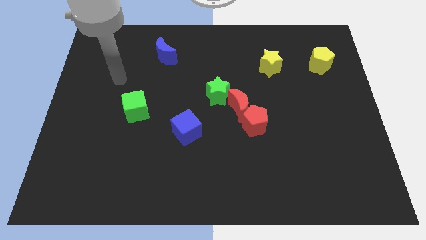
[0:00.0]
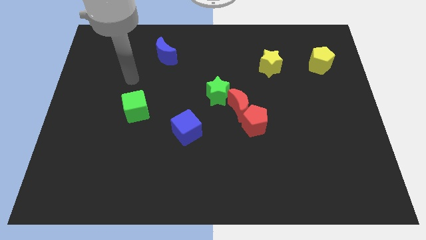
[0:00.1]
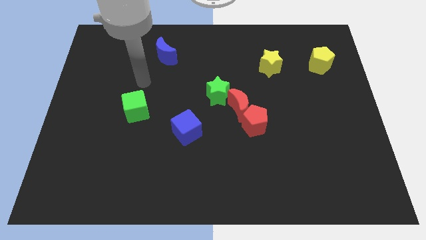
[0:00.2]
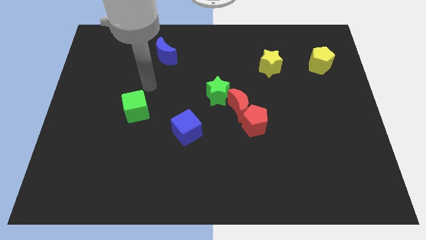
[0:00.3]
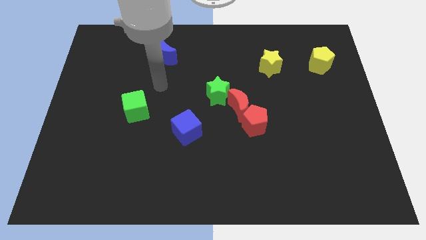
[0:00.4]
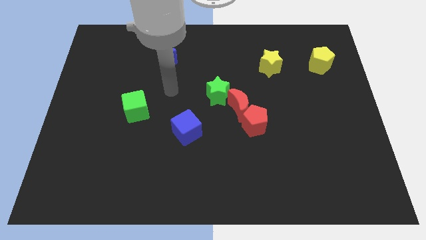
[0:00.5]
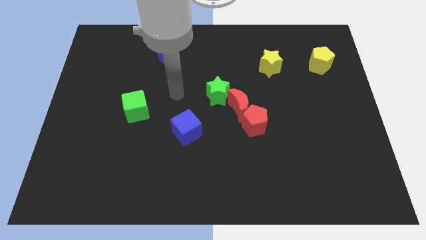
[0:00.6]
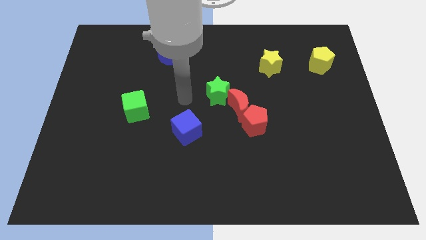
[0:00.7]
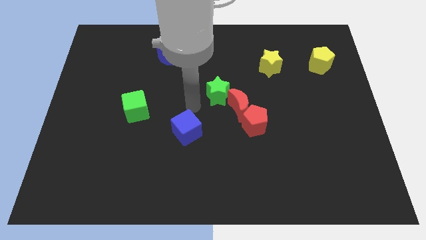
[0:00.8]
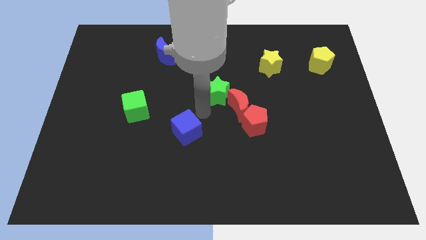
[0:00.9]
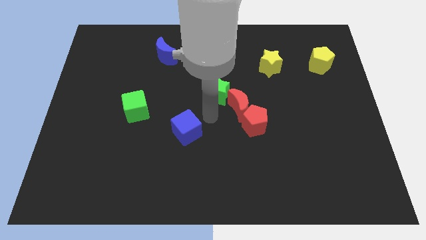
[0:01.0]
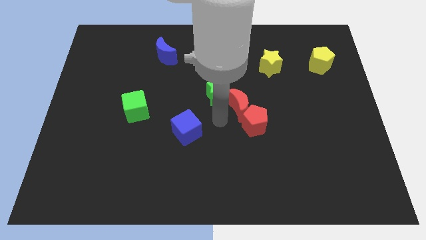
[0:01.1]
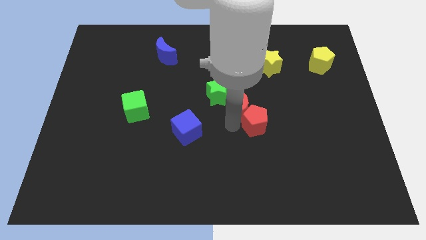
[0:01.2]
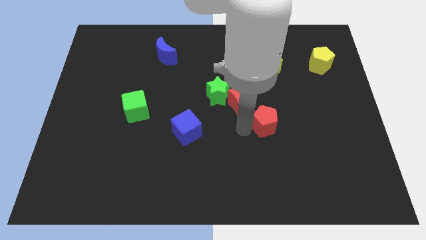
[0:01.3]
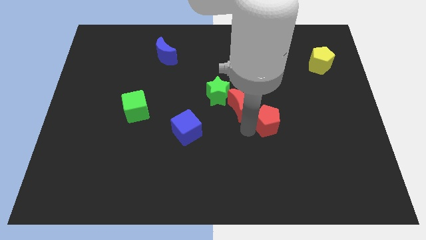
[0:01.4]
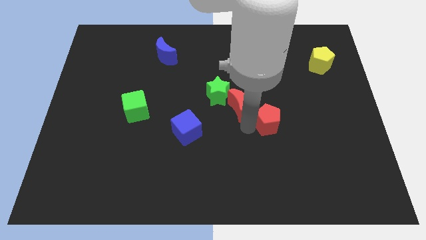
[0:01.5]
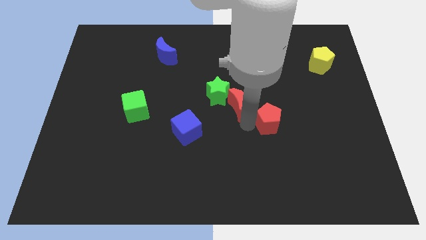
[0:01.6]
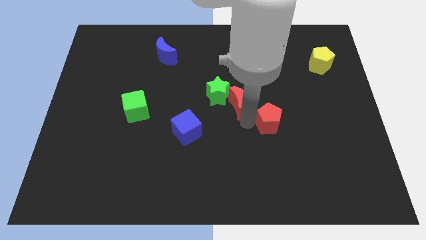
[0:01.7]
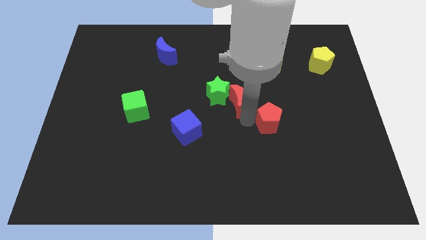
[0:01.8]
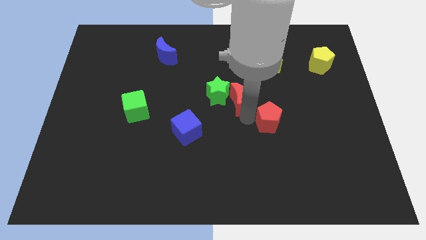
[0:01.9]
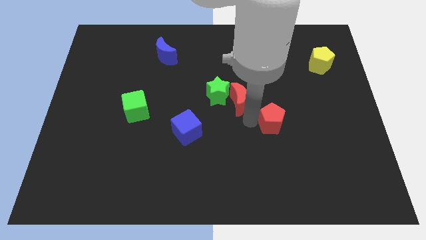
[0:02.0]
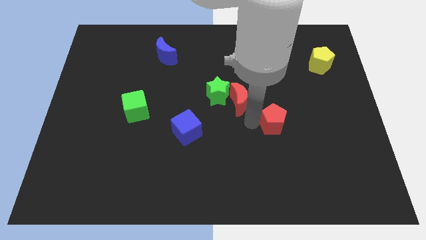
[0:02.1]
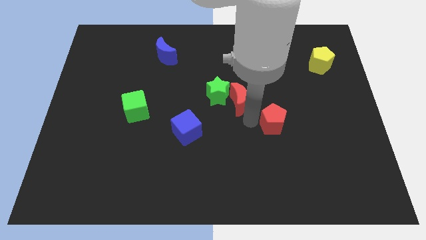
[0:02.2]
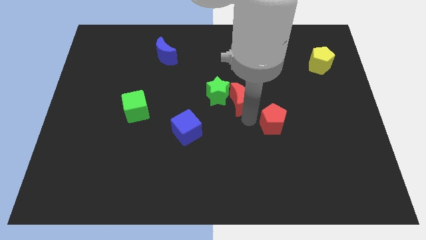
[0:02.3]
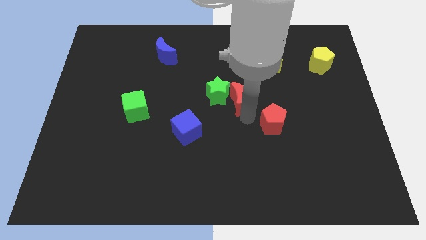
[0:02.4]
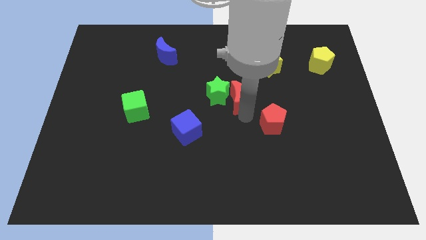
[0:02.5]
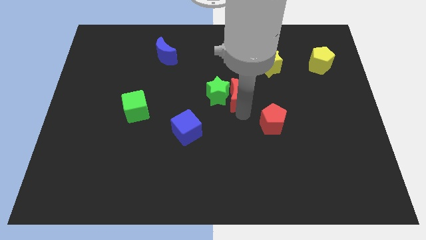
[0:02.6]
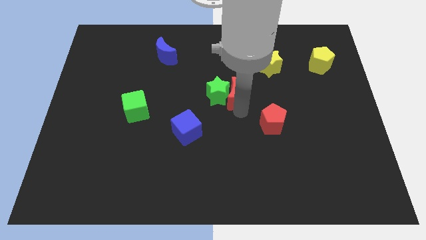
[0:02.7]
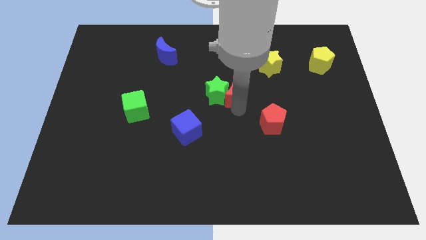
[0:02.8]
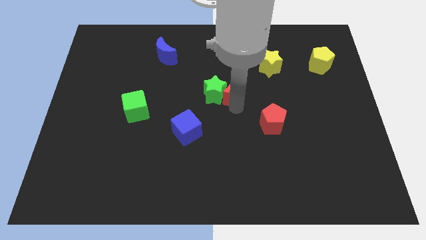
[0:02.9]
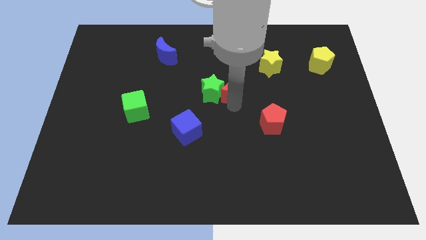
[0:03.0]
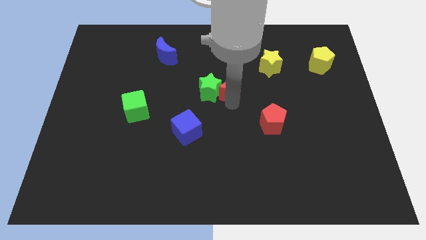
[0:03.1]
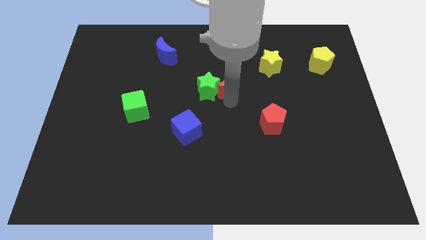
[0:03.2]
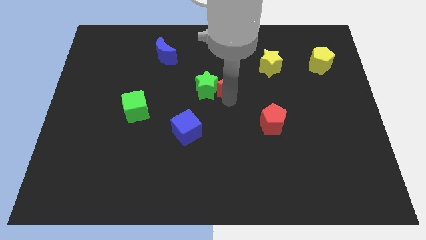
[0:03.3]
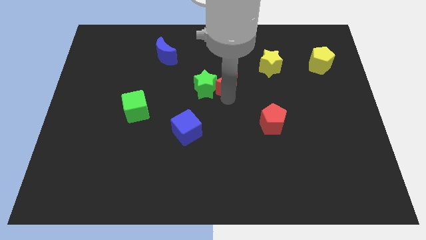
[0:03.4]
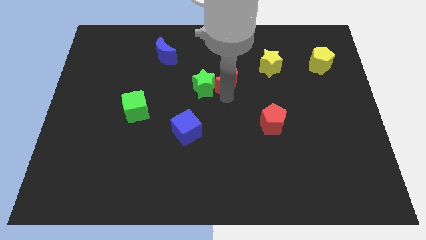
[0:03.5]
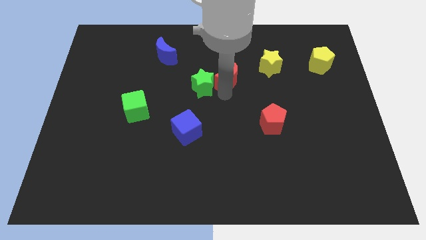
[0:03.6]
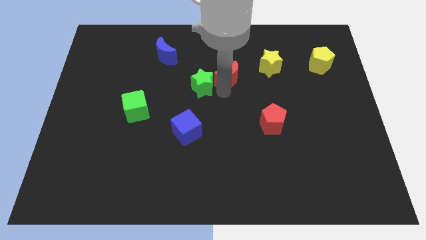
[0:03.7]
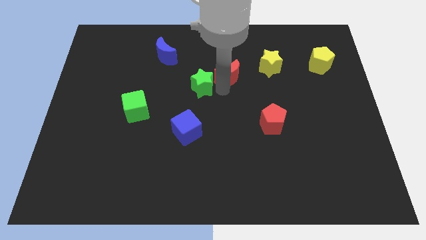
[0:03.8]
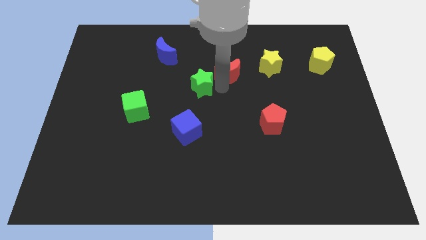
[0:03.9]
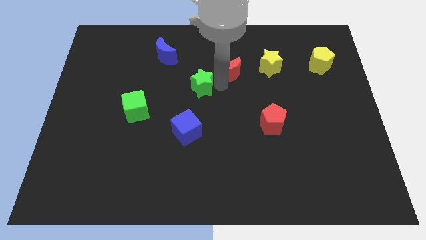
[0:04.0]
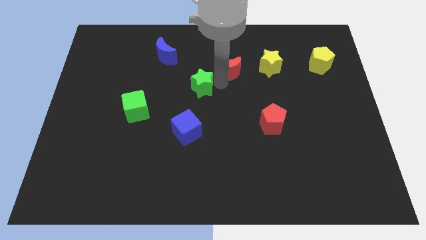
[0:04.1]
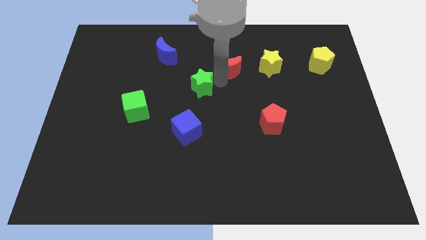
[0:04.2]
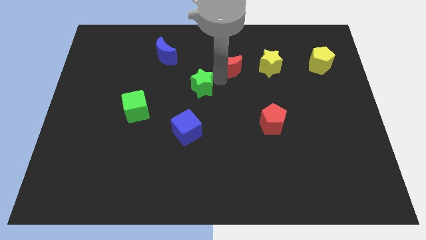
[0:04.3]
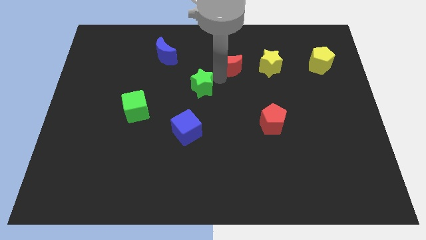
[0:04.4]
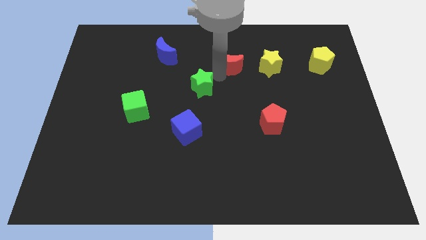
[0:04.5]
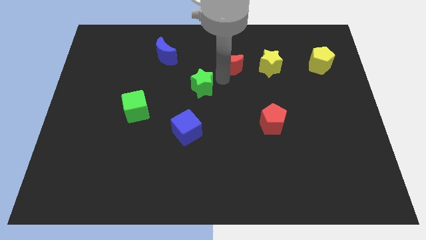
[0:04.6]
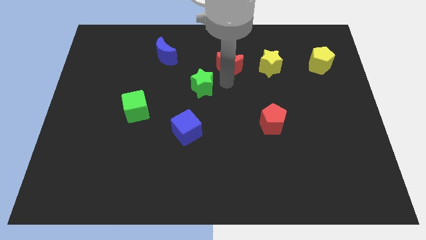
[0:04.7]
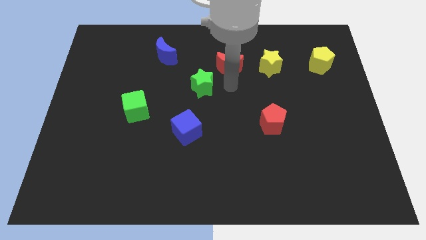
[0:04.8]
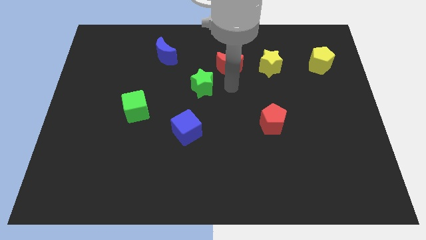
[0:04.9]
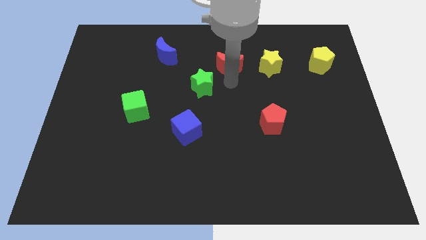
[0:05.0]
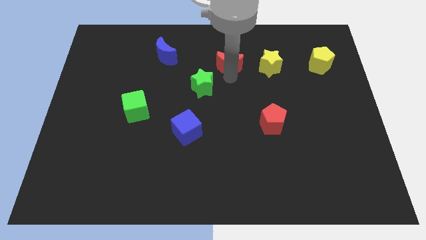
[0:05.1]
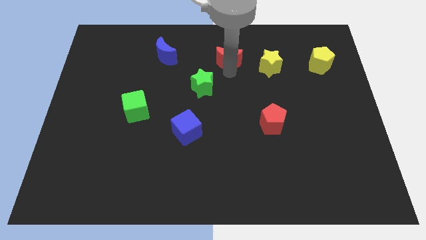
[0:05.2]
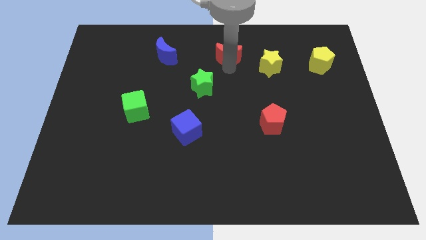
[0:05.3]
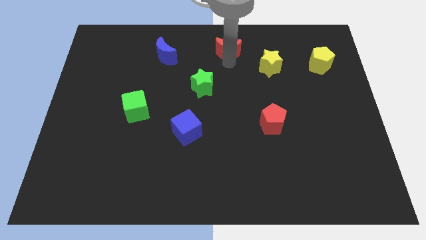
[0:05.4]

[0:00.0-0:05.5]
move the red moon to the top

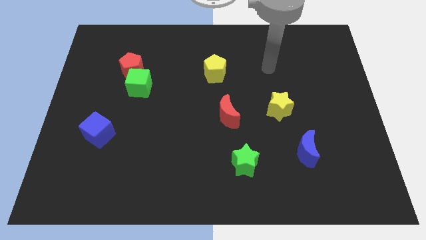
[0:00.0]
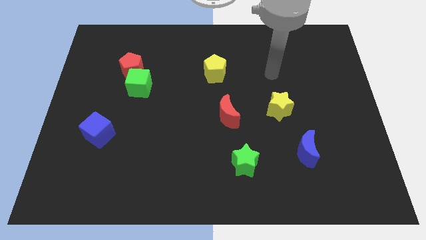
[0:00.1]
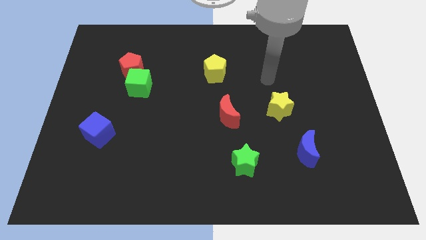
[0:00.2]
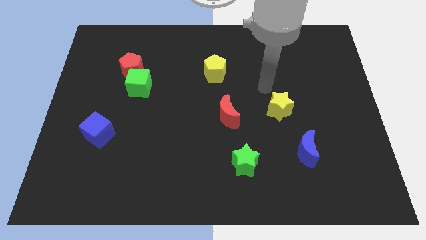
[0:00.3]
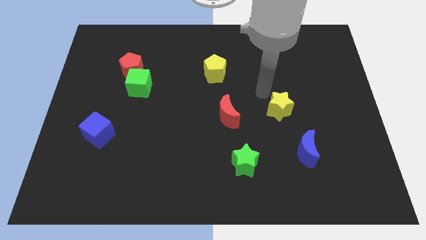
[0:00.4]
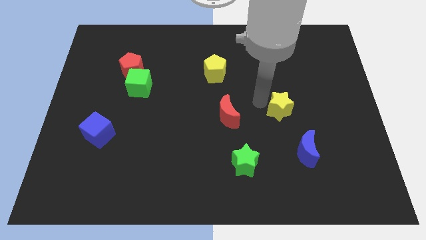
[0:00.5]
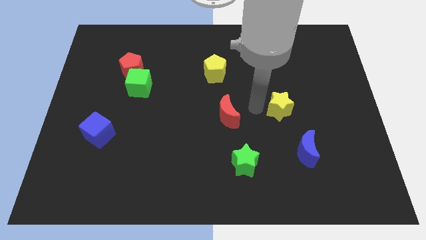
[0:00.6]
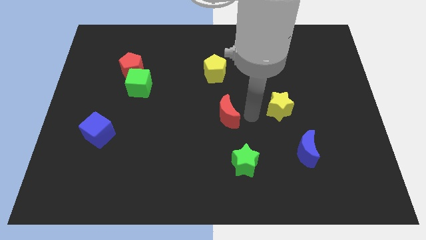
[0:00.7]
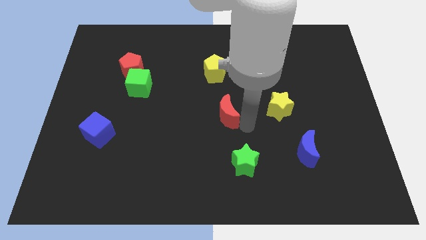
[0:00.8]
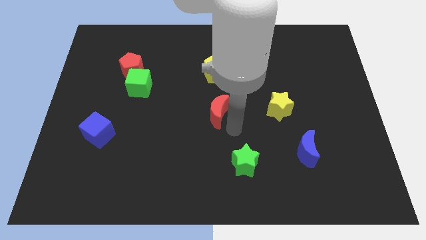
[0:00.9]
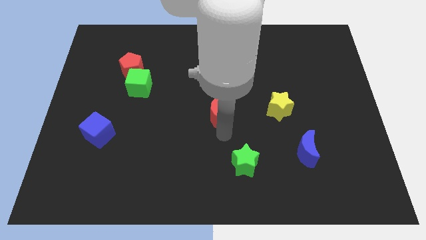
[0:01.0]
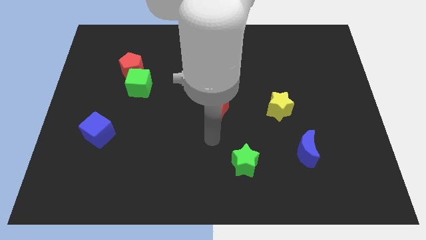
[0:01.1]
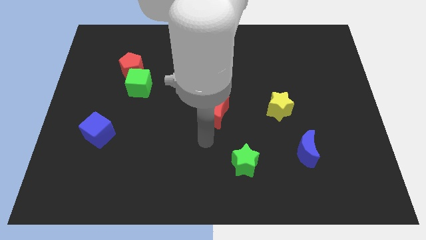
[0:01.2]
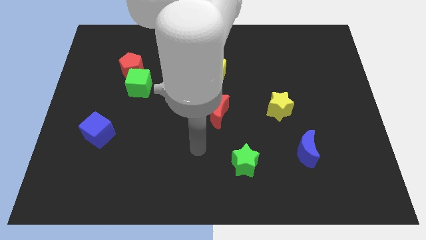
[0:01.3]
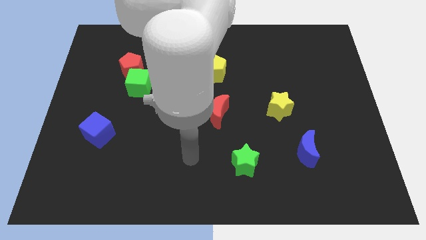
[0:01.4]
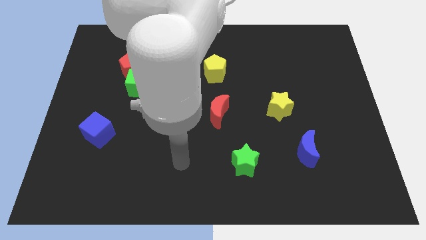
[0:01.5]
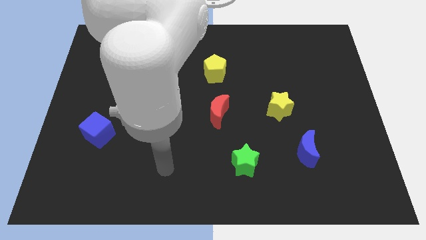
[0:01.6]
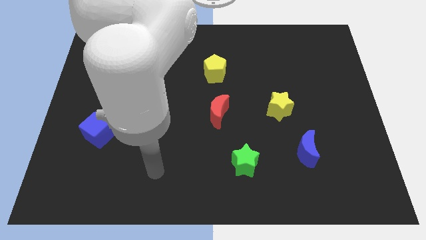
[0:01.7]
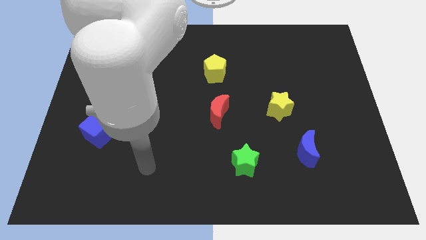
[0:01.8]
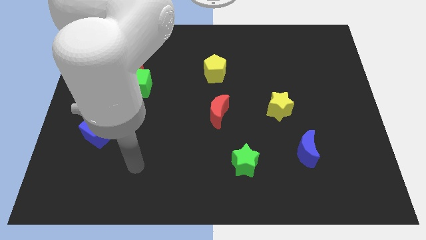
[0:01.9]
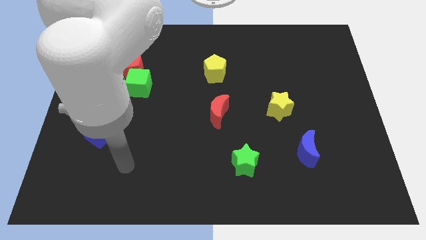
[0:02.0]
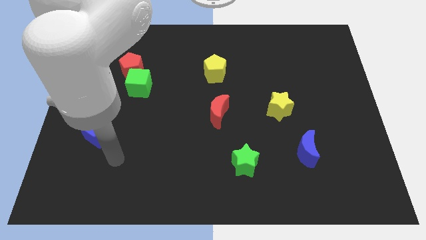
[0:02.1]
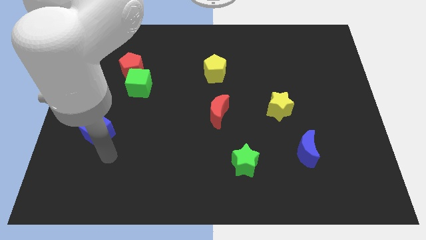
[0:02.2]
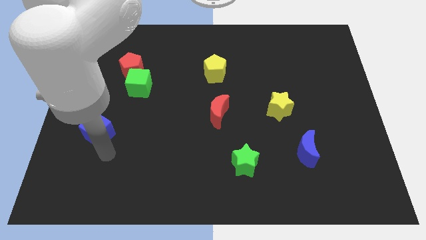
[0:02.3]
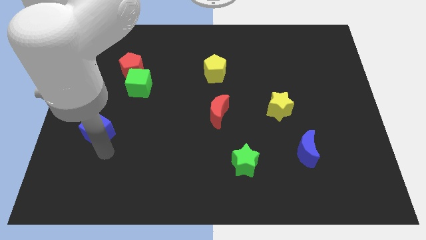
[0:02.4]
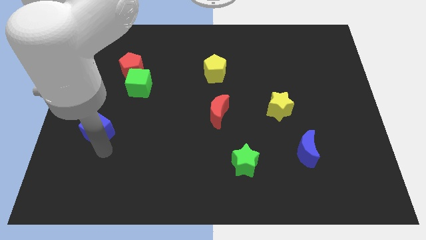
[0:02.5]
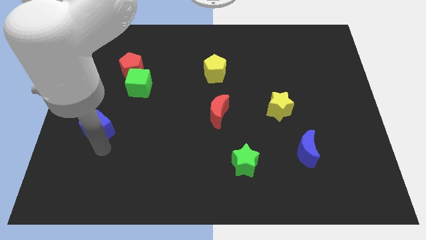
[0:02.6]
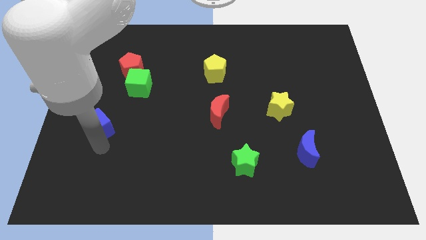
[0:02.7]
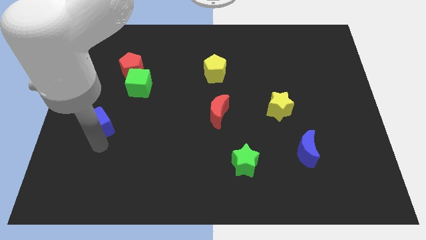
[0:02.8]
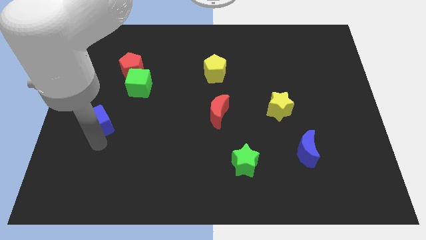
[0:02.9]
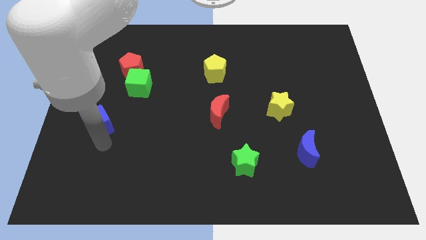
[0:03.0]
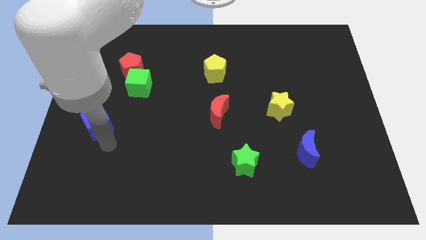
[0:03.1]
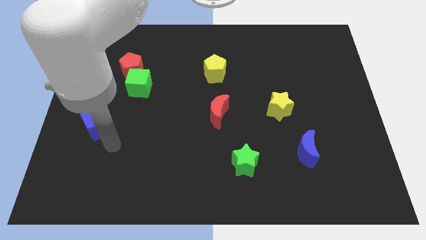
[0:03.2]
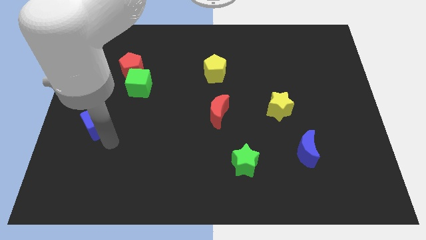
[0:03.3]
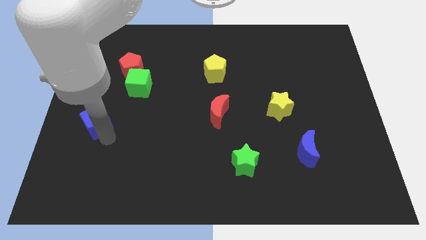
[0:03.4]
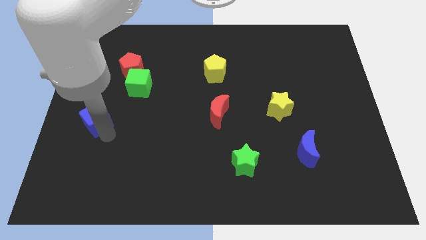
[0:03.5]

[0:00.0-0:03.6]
move the blue cube to the left side of the board
